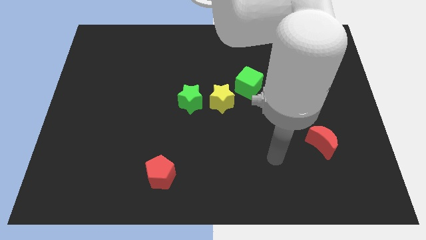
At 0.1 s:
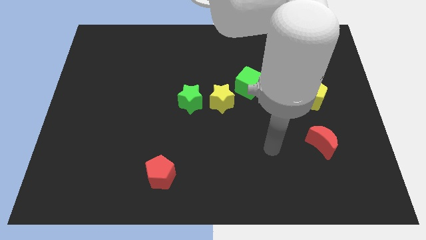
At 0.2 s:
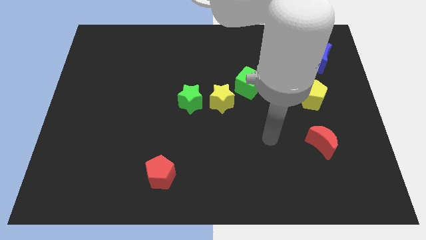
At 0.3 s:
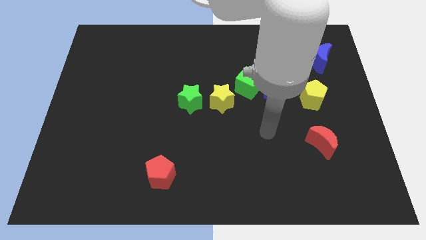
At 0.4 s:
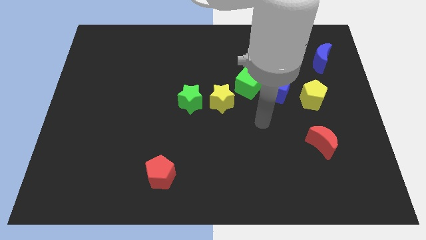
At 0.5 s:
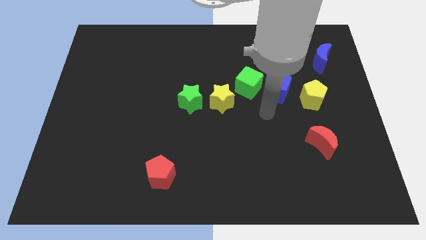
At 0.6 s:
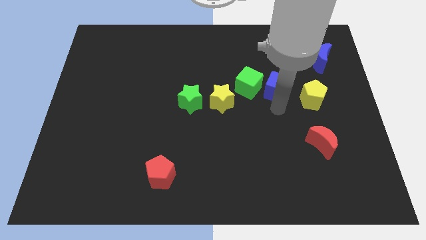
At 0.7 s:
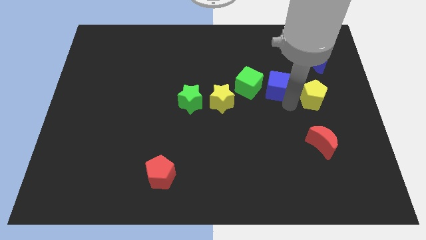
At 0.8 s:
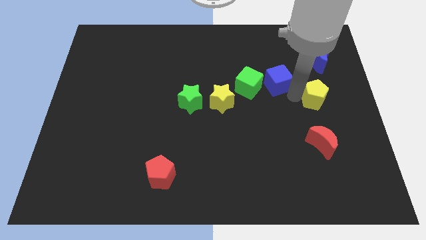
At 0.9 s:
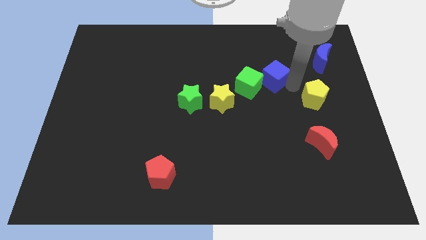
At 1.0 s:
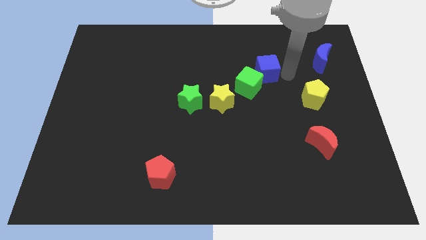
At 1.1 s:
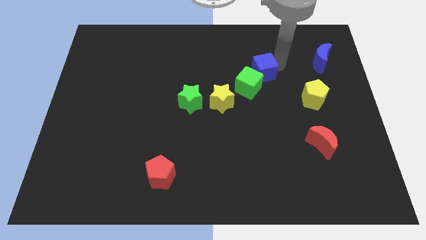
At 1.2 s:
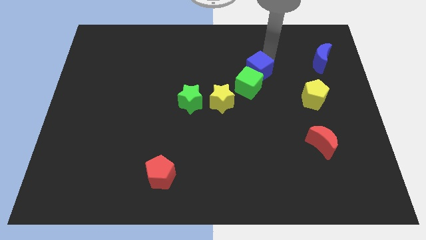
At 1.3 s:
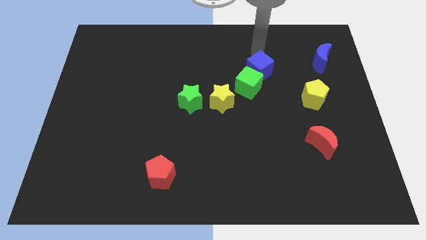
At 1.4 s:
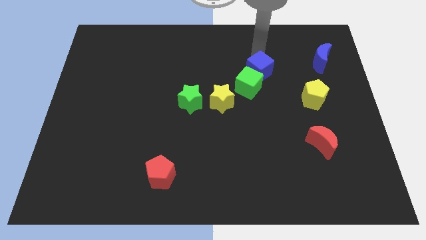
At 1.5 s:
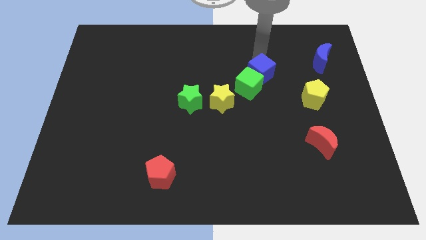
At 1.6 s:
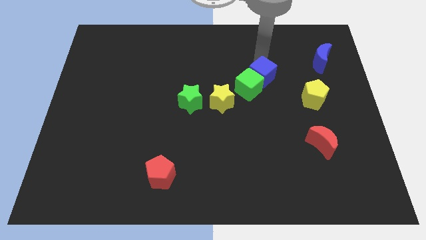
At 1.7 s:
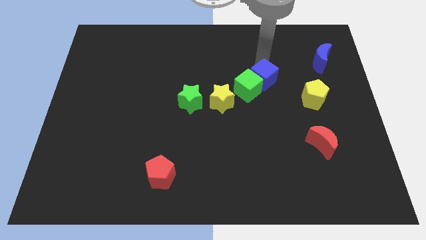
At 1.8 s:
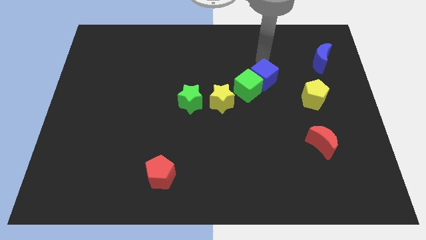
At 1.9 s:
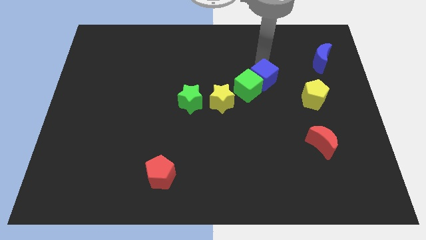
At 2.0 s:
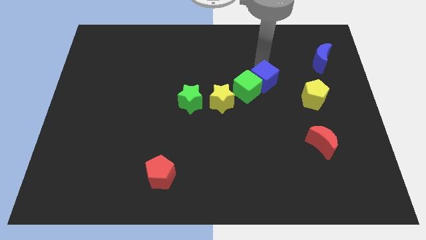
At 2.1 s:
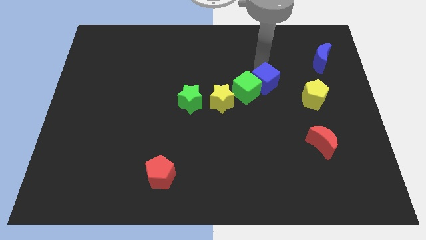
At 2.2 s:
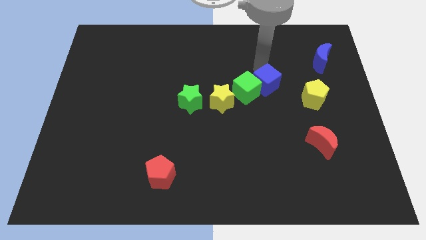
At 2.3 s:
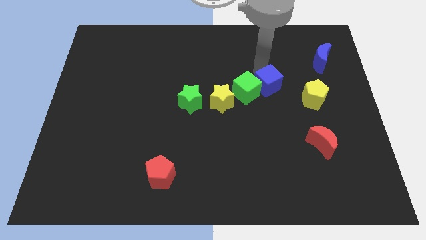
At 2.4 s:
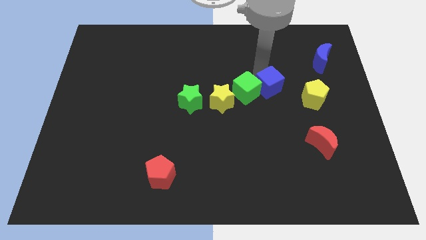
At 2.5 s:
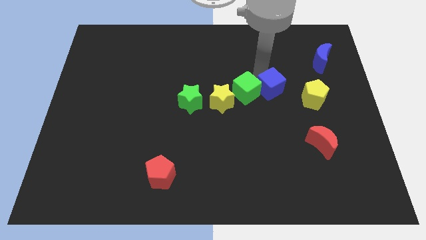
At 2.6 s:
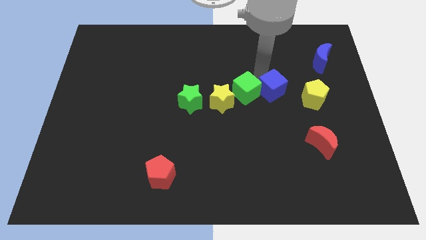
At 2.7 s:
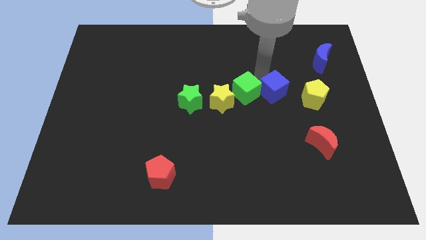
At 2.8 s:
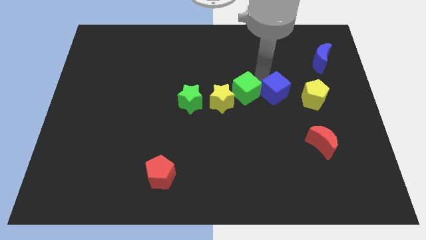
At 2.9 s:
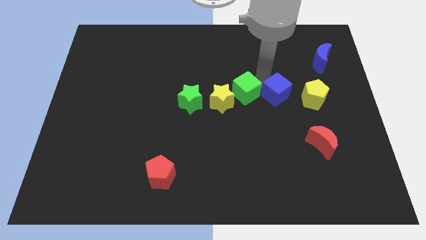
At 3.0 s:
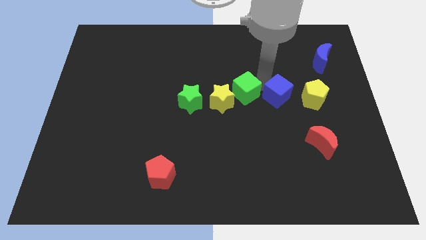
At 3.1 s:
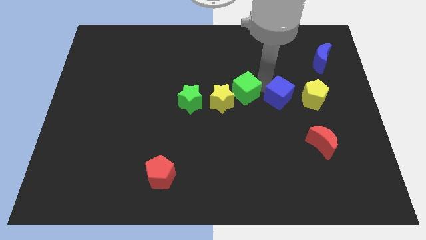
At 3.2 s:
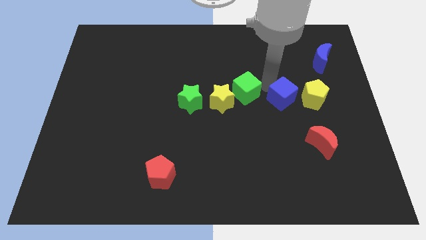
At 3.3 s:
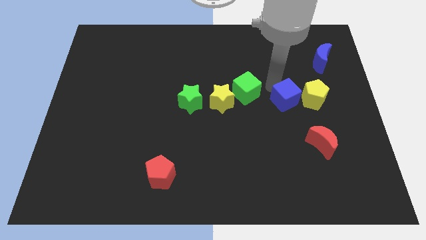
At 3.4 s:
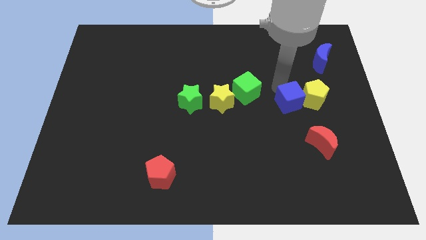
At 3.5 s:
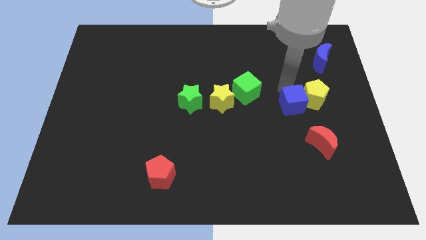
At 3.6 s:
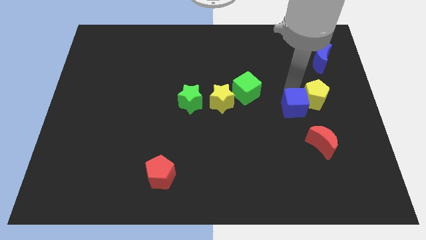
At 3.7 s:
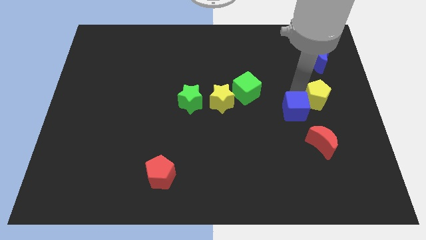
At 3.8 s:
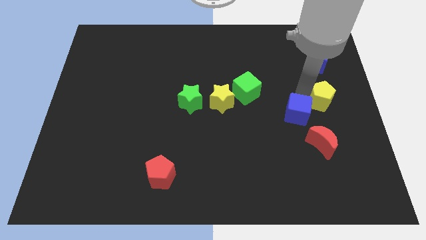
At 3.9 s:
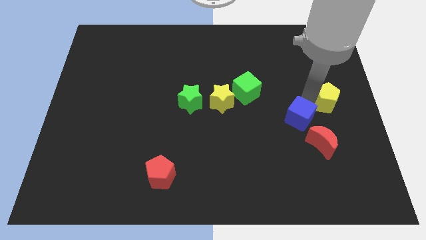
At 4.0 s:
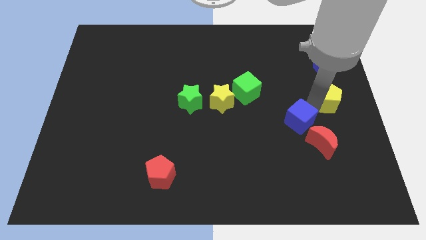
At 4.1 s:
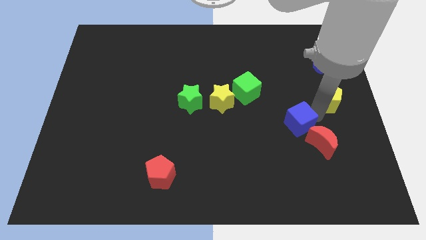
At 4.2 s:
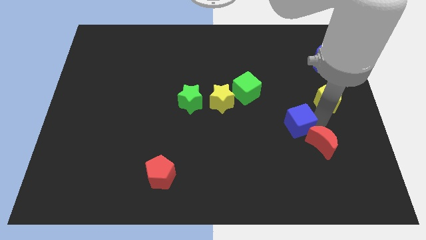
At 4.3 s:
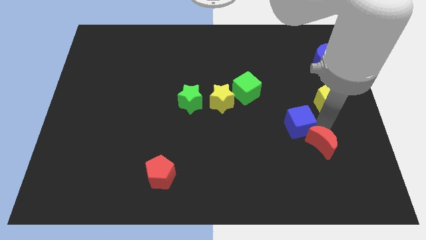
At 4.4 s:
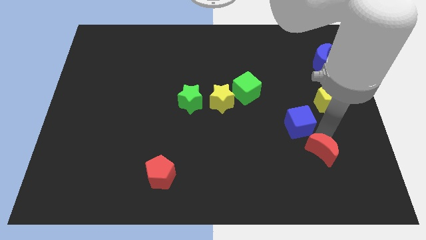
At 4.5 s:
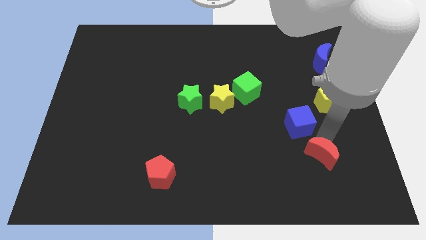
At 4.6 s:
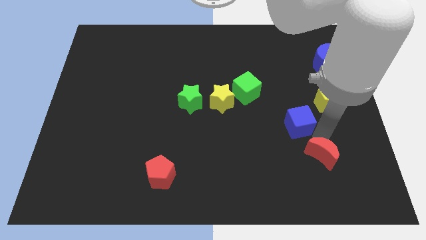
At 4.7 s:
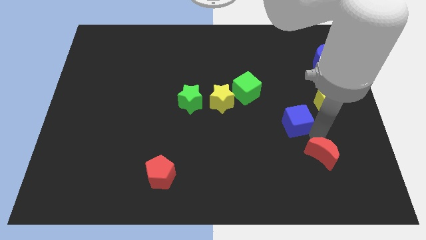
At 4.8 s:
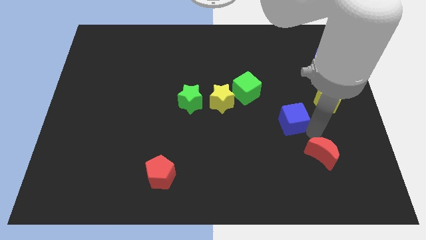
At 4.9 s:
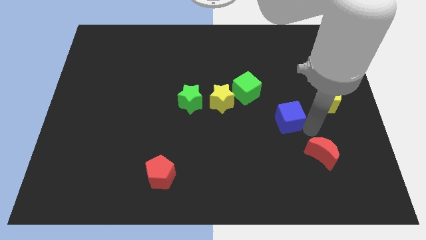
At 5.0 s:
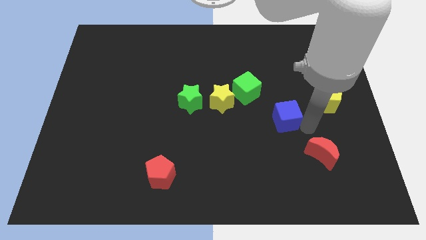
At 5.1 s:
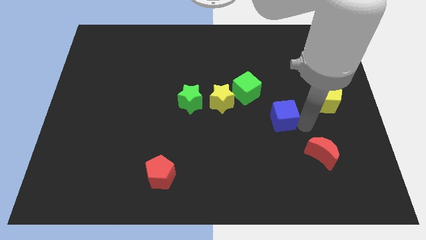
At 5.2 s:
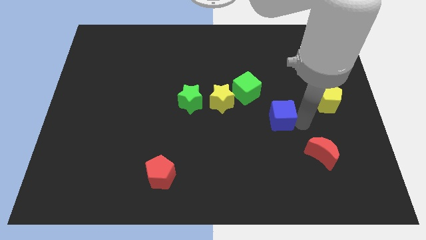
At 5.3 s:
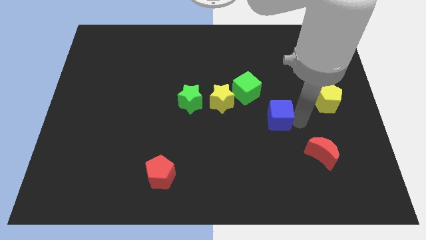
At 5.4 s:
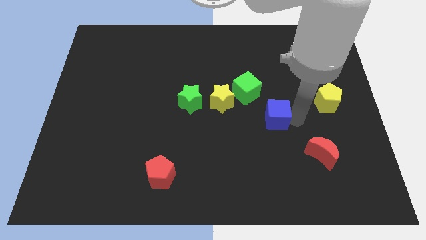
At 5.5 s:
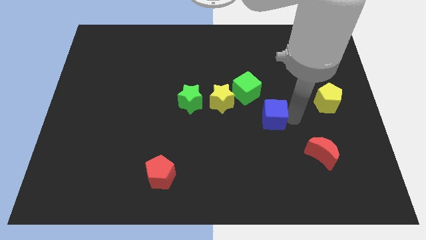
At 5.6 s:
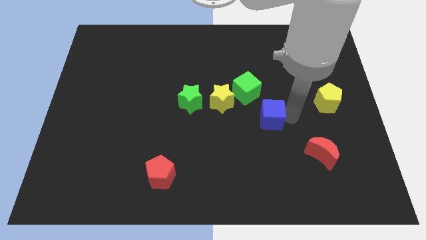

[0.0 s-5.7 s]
move the blue cube down and left slightly

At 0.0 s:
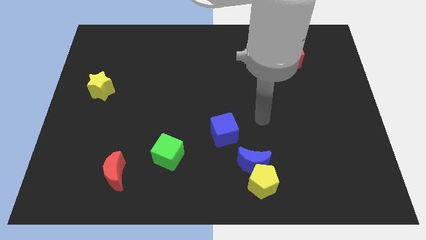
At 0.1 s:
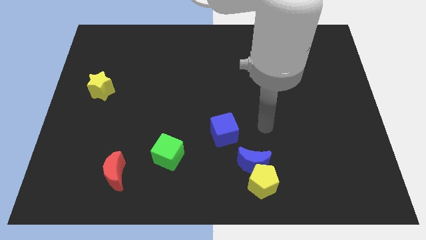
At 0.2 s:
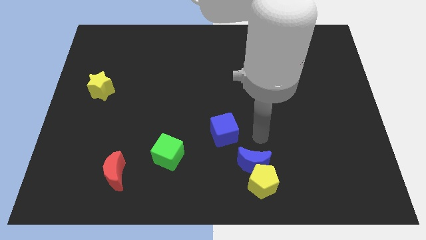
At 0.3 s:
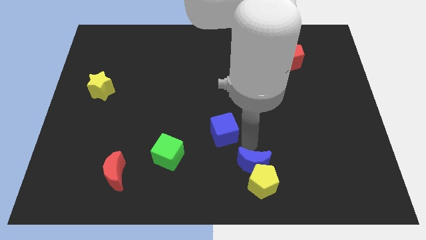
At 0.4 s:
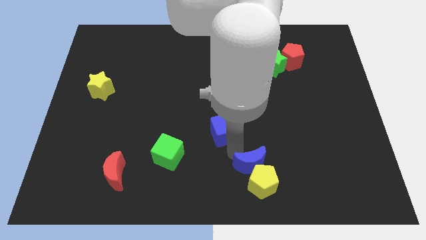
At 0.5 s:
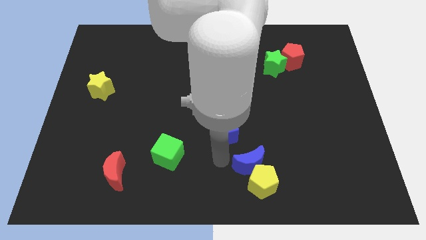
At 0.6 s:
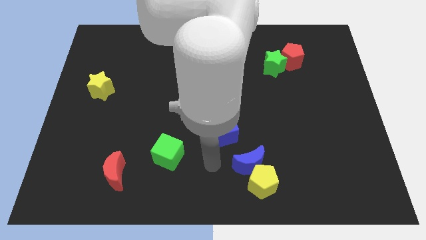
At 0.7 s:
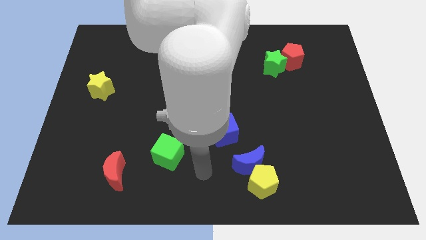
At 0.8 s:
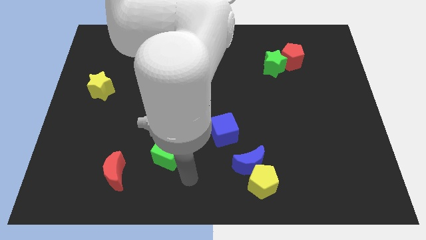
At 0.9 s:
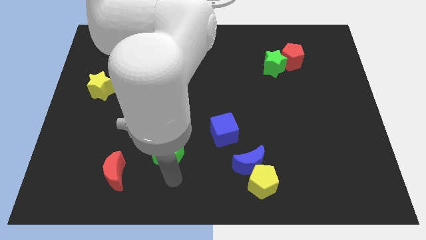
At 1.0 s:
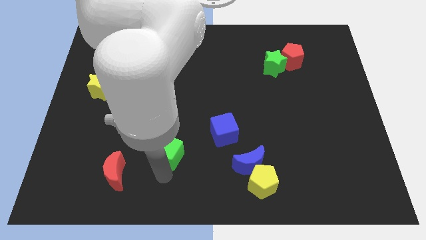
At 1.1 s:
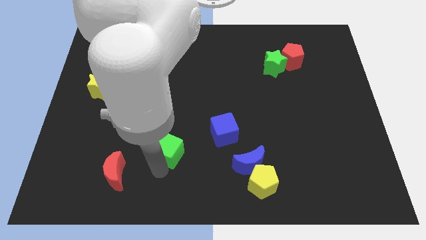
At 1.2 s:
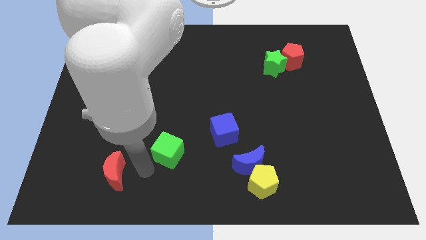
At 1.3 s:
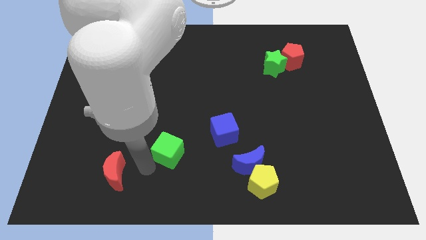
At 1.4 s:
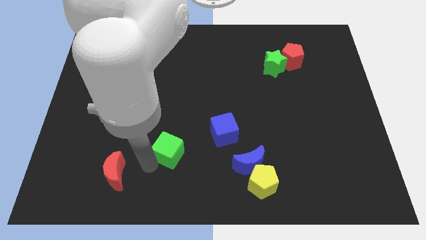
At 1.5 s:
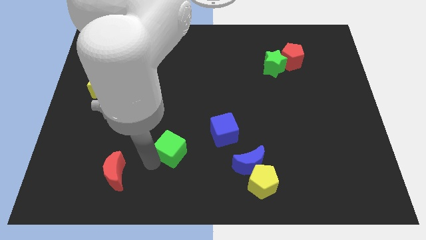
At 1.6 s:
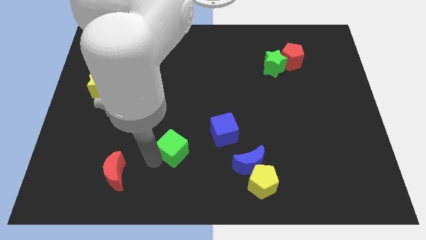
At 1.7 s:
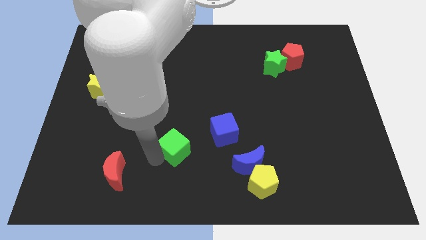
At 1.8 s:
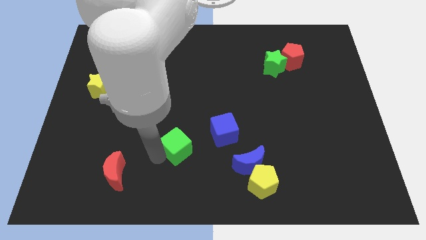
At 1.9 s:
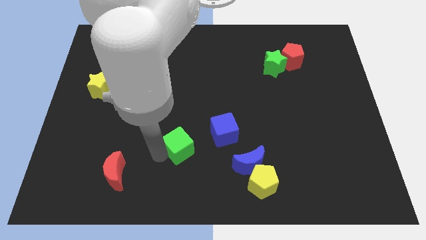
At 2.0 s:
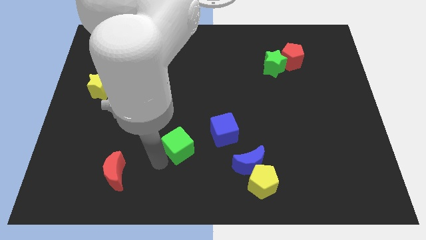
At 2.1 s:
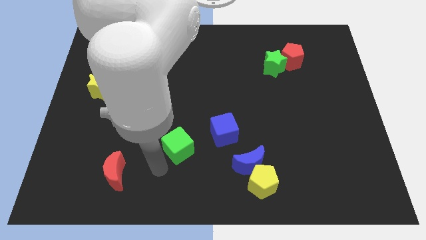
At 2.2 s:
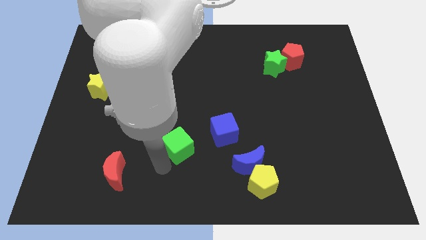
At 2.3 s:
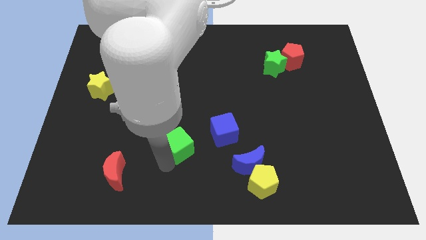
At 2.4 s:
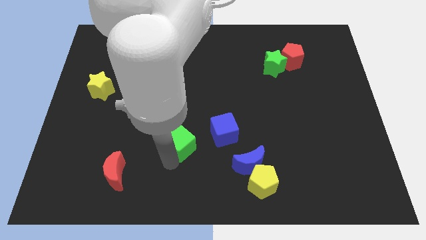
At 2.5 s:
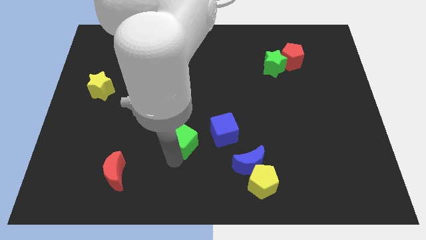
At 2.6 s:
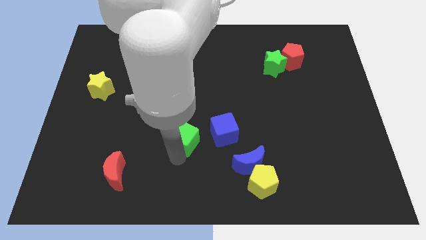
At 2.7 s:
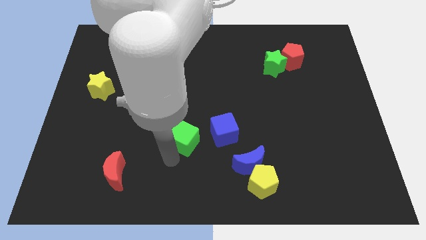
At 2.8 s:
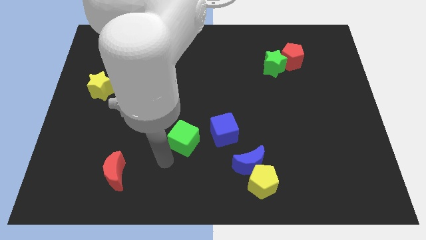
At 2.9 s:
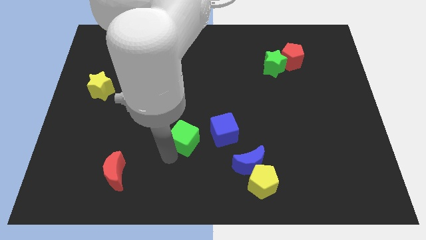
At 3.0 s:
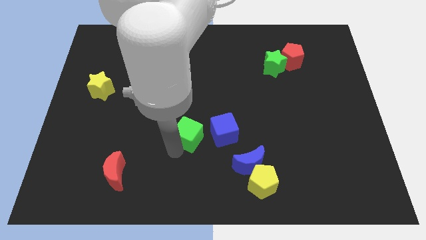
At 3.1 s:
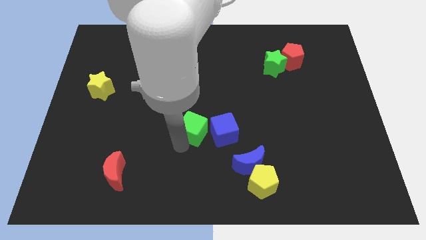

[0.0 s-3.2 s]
push the green cube upwards and right diagonally a little
